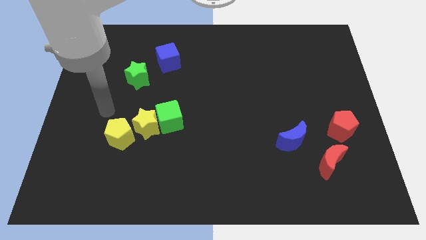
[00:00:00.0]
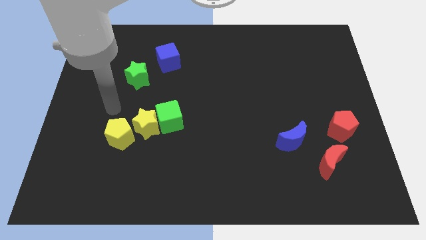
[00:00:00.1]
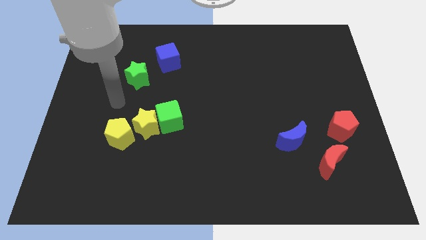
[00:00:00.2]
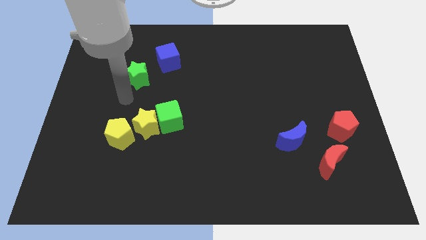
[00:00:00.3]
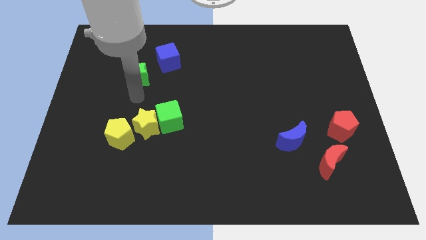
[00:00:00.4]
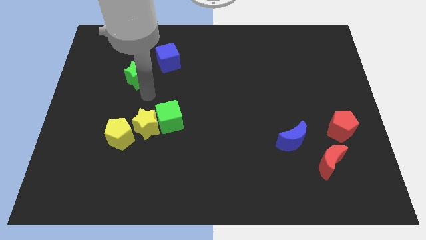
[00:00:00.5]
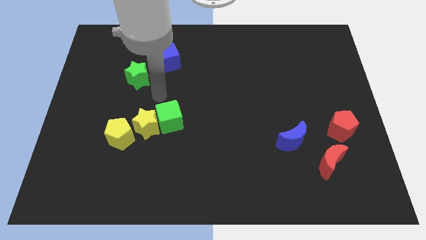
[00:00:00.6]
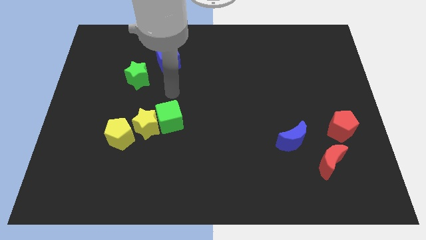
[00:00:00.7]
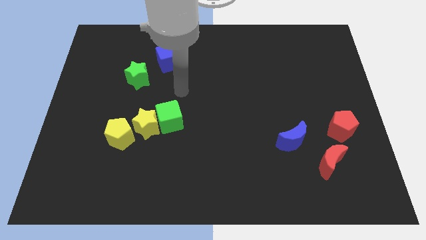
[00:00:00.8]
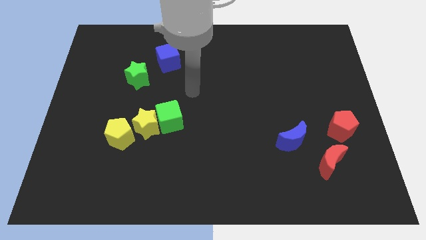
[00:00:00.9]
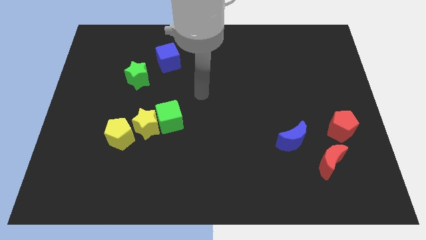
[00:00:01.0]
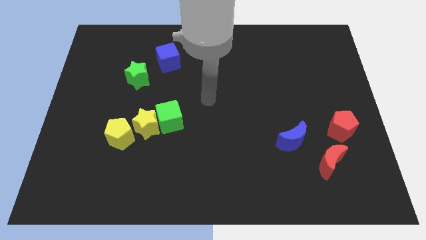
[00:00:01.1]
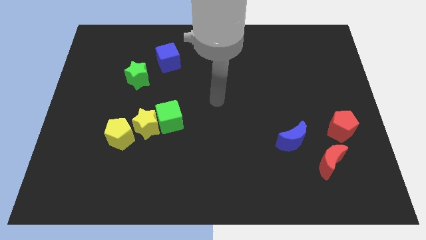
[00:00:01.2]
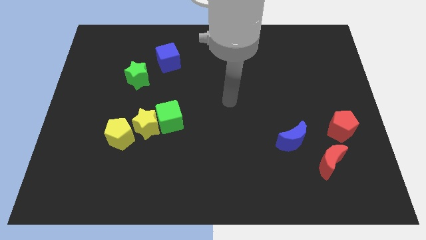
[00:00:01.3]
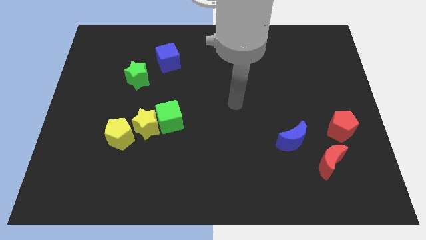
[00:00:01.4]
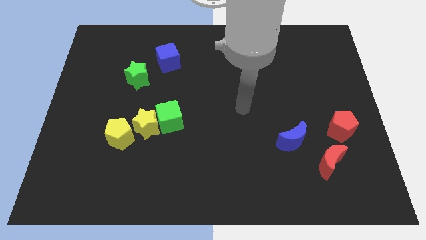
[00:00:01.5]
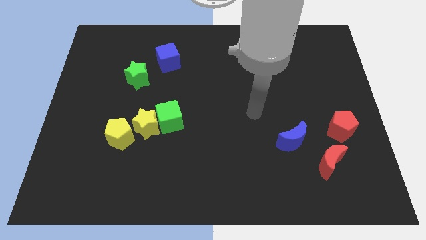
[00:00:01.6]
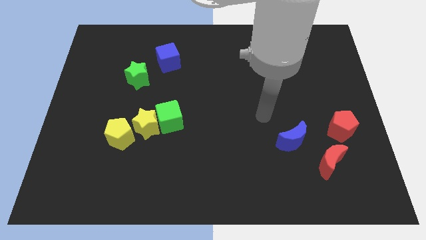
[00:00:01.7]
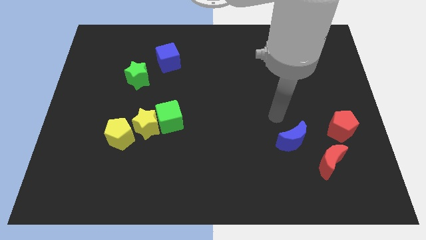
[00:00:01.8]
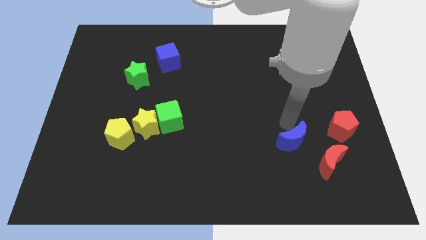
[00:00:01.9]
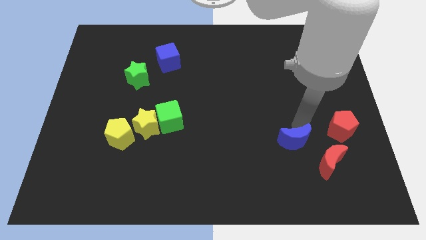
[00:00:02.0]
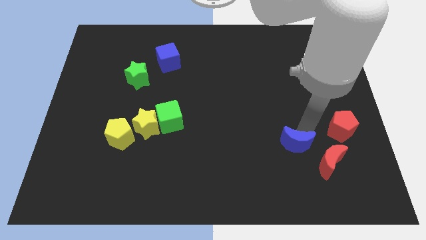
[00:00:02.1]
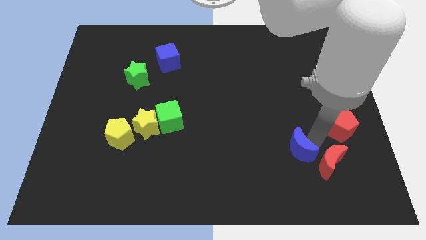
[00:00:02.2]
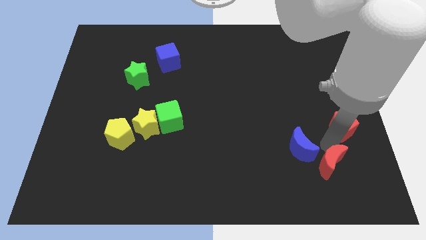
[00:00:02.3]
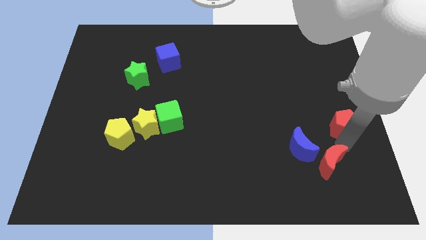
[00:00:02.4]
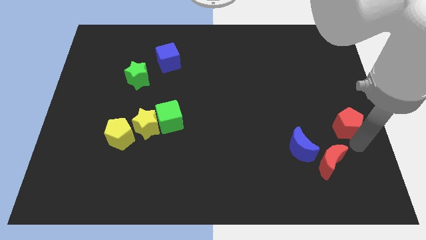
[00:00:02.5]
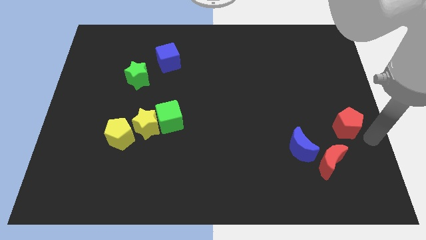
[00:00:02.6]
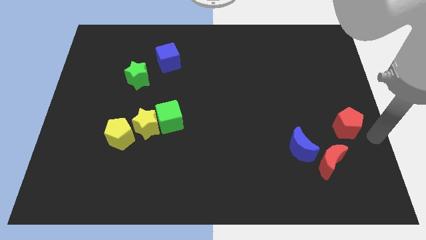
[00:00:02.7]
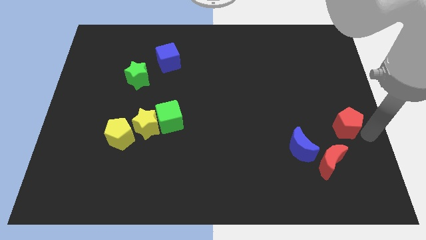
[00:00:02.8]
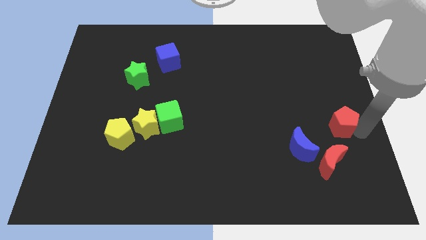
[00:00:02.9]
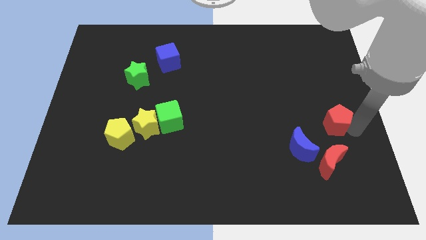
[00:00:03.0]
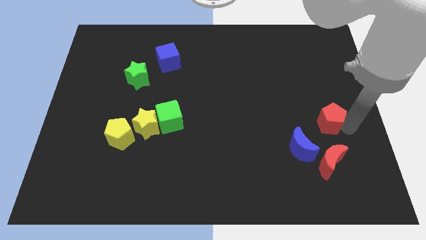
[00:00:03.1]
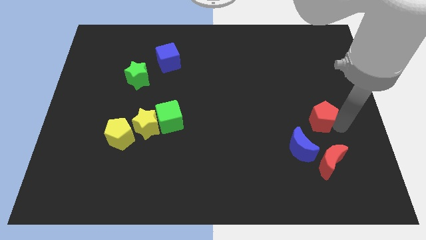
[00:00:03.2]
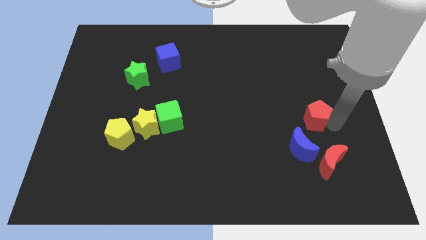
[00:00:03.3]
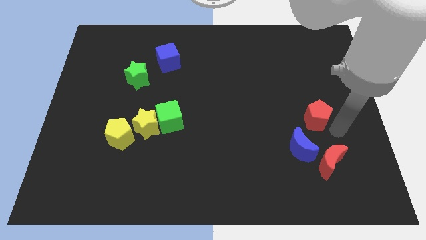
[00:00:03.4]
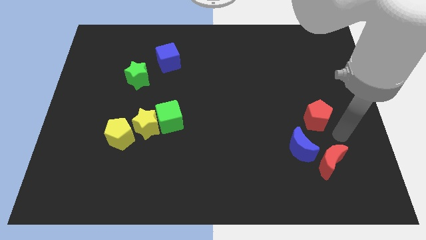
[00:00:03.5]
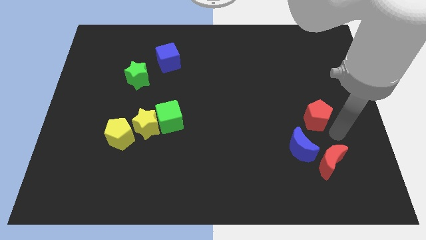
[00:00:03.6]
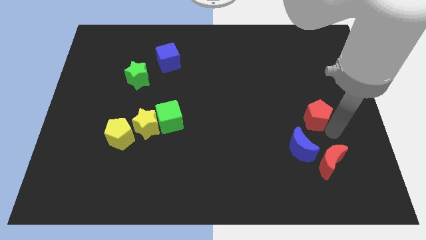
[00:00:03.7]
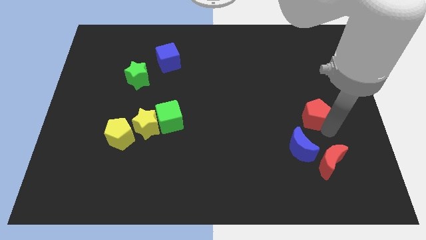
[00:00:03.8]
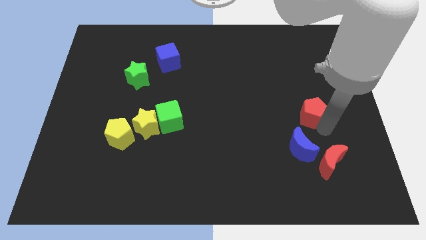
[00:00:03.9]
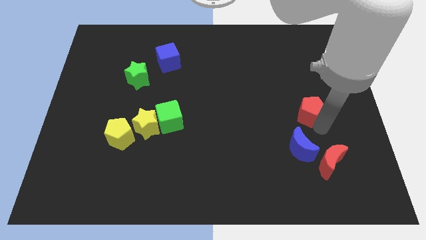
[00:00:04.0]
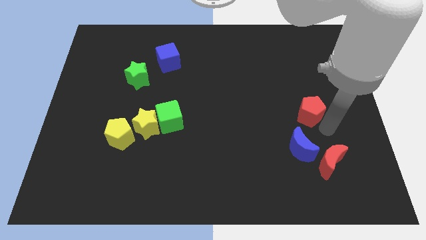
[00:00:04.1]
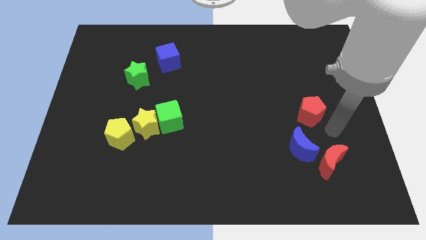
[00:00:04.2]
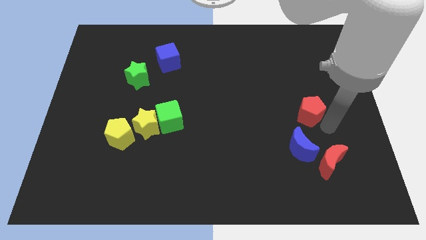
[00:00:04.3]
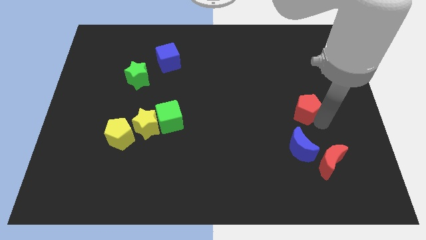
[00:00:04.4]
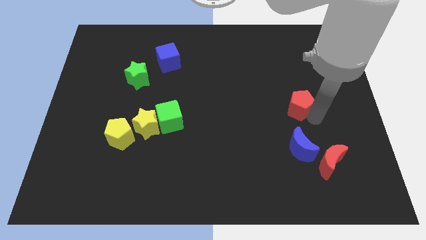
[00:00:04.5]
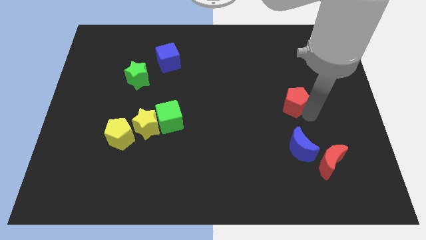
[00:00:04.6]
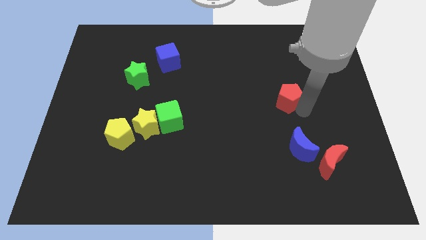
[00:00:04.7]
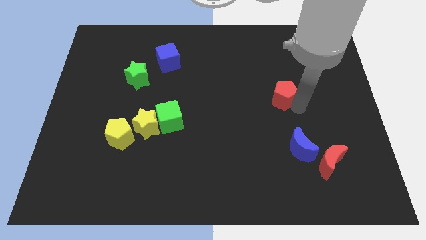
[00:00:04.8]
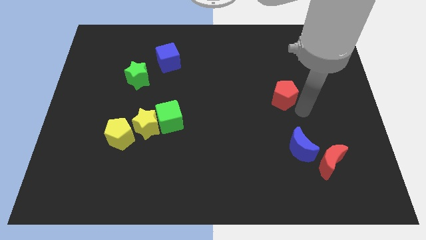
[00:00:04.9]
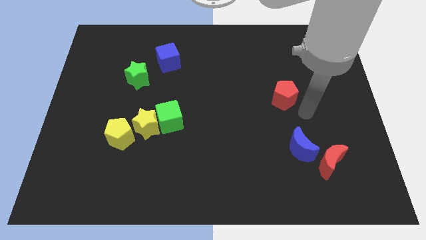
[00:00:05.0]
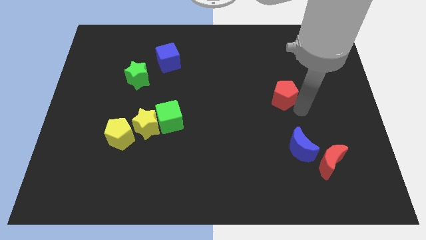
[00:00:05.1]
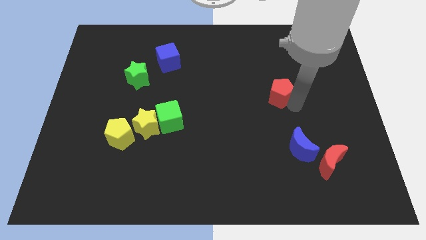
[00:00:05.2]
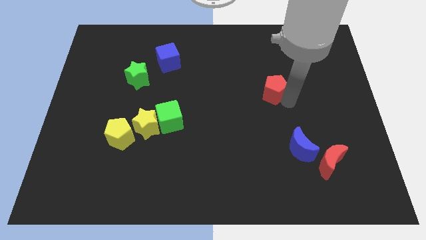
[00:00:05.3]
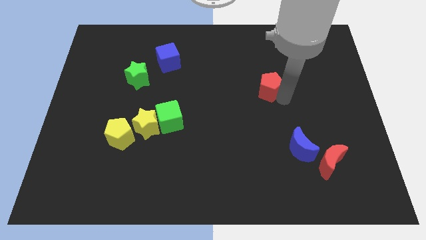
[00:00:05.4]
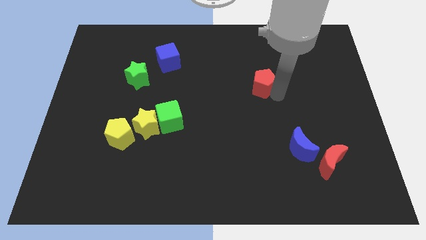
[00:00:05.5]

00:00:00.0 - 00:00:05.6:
slide the red pentagon upwards and then to the left

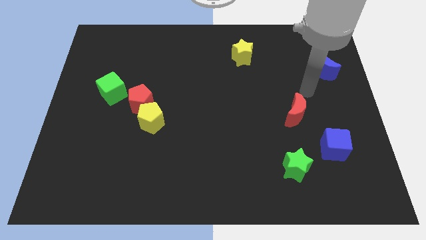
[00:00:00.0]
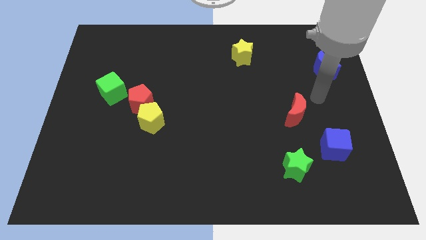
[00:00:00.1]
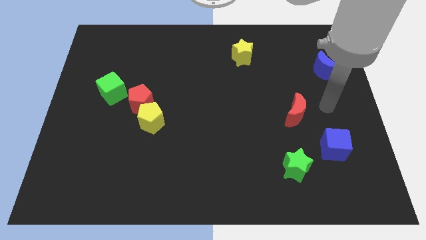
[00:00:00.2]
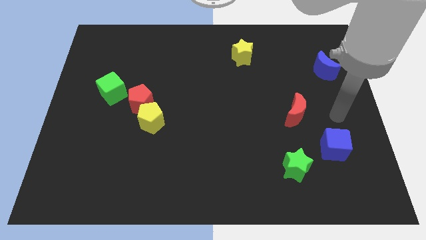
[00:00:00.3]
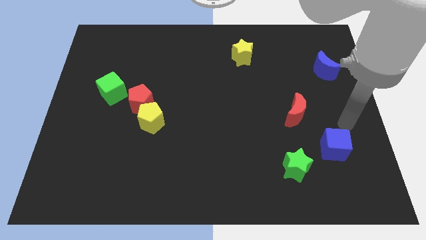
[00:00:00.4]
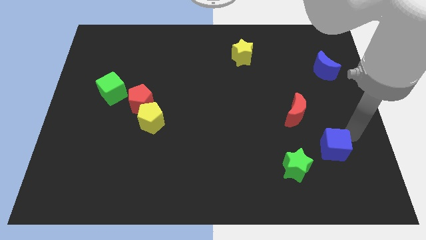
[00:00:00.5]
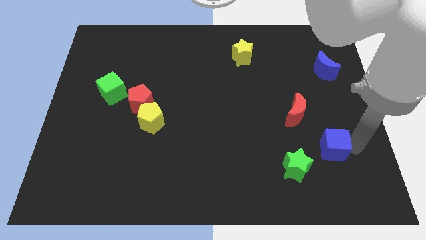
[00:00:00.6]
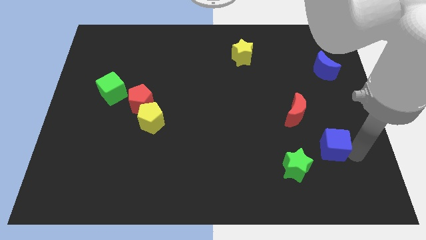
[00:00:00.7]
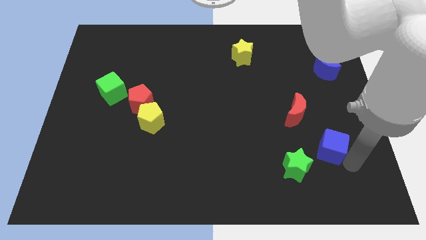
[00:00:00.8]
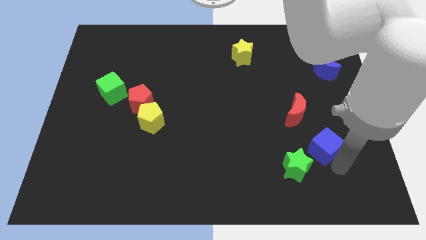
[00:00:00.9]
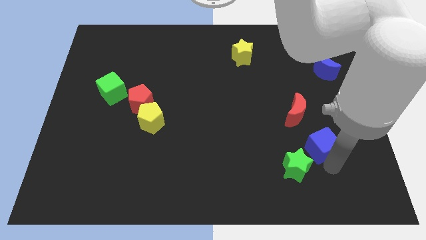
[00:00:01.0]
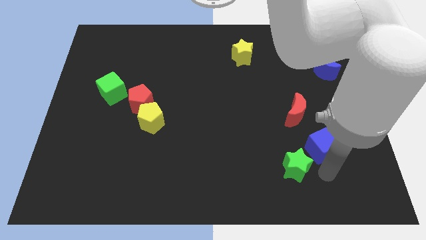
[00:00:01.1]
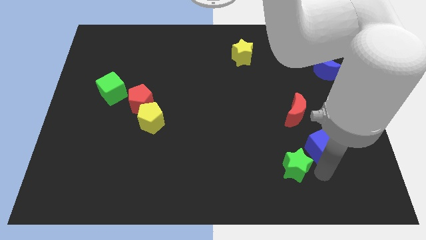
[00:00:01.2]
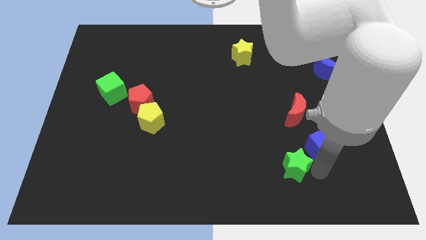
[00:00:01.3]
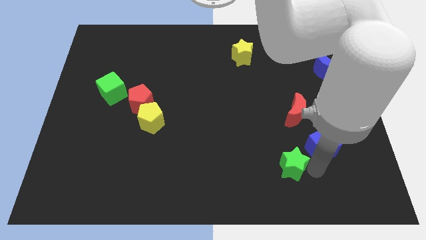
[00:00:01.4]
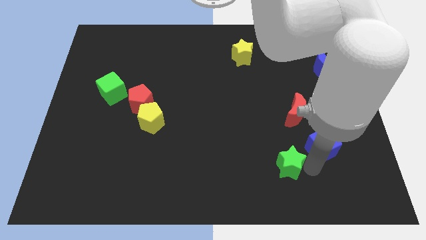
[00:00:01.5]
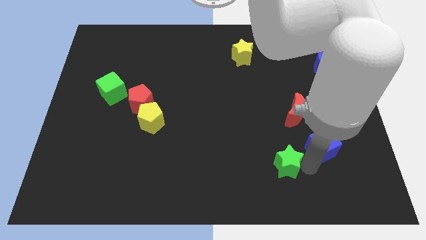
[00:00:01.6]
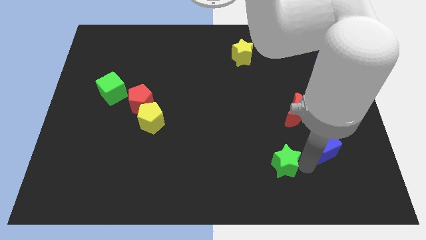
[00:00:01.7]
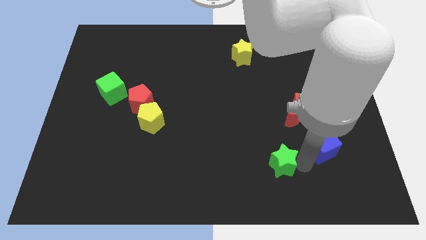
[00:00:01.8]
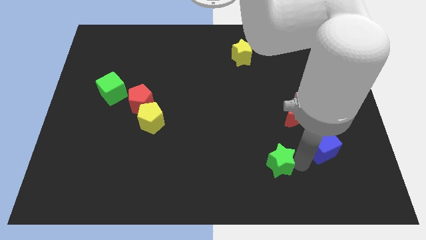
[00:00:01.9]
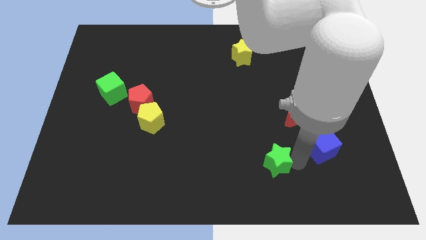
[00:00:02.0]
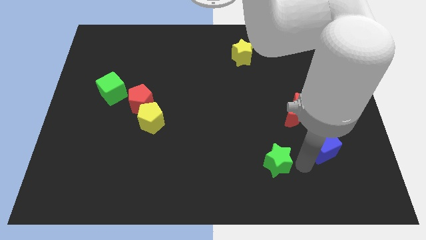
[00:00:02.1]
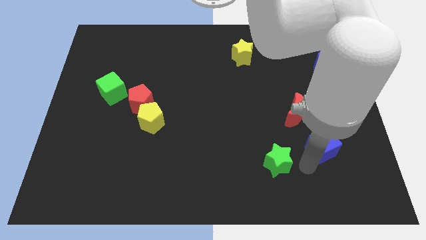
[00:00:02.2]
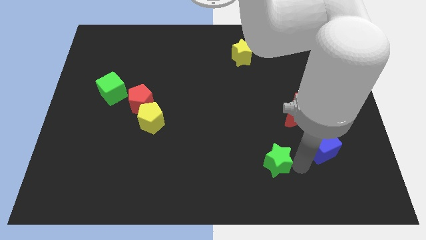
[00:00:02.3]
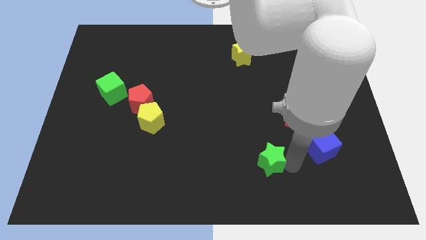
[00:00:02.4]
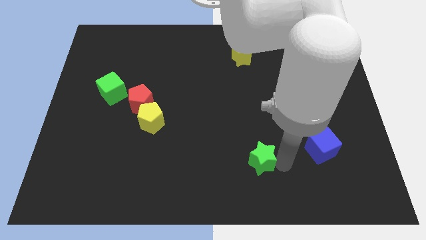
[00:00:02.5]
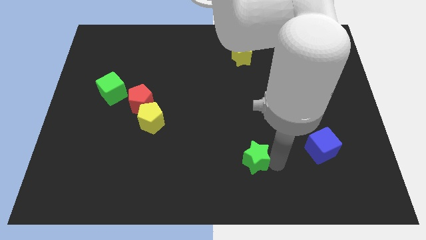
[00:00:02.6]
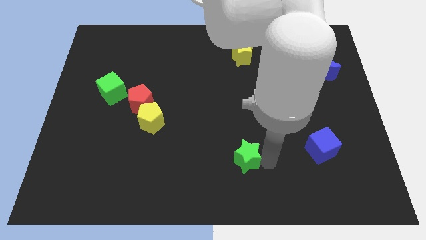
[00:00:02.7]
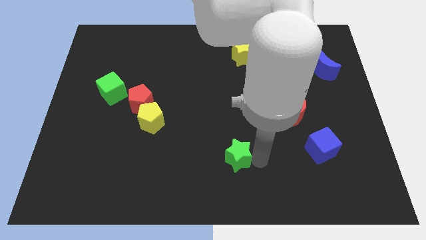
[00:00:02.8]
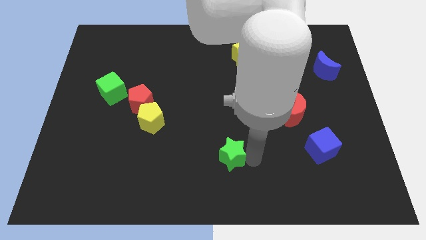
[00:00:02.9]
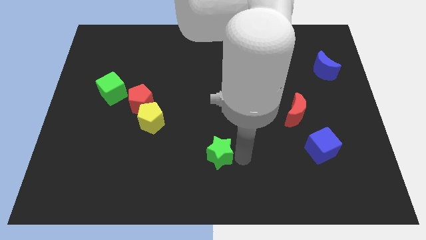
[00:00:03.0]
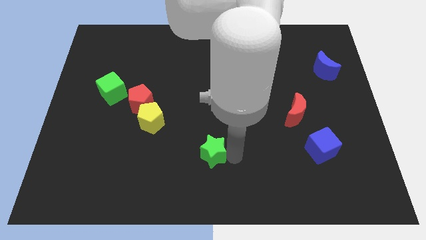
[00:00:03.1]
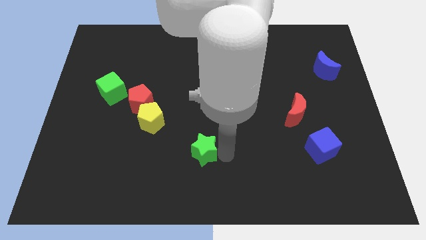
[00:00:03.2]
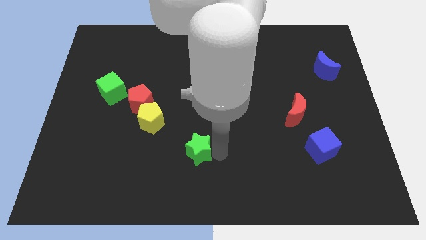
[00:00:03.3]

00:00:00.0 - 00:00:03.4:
move the green star to the left
